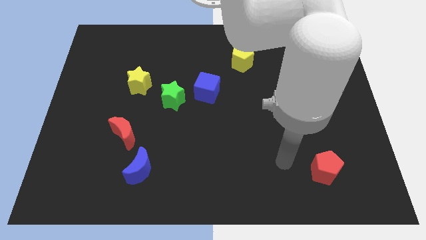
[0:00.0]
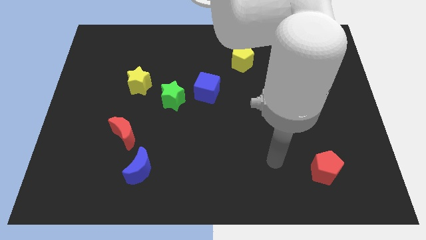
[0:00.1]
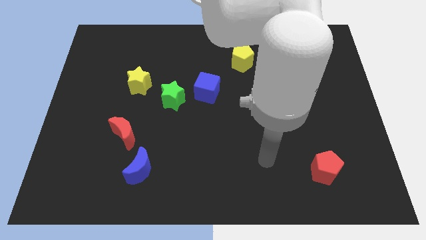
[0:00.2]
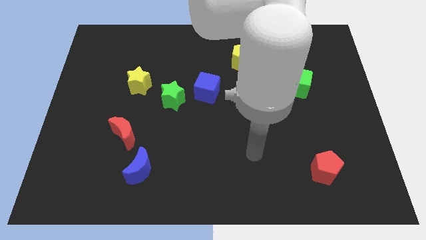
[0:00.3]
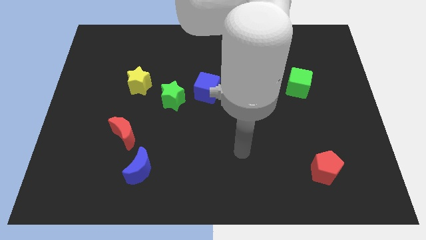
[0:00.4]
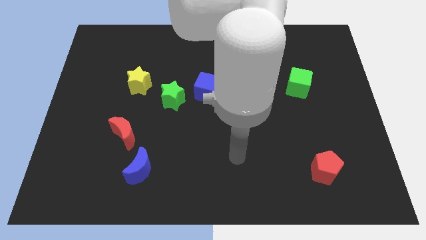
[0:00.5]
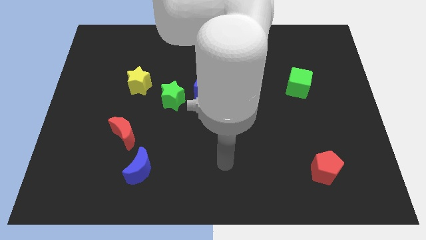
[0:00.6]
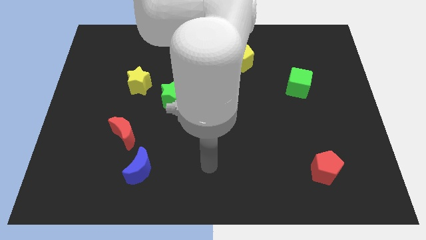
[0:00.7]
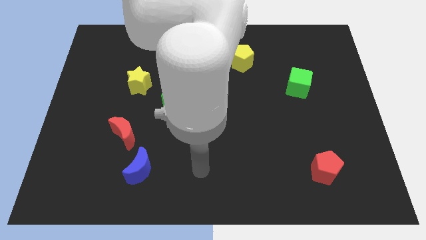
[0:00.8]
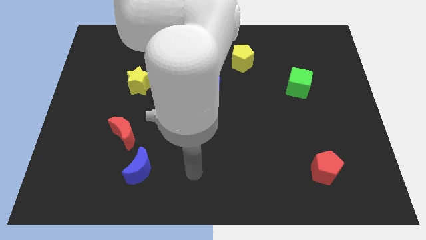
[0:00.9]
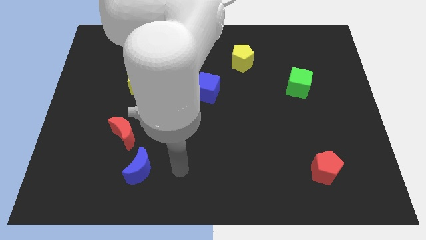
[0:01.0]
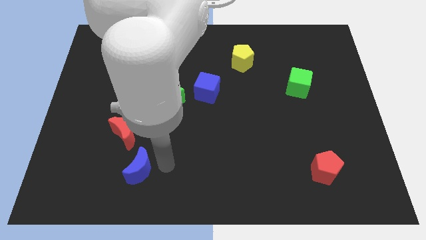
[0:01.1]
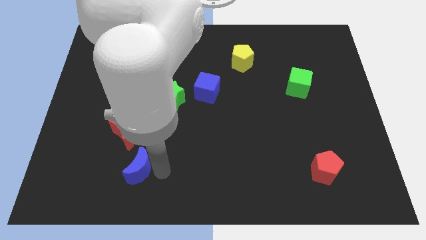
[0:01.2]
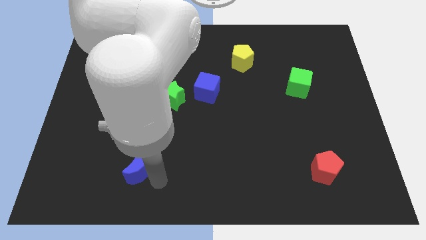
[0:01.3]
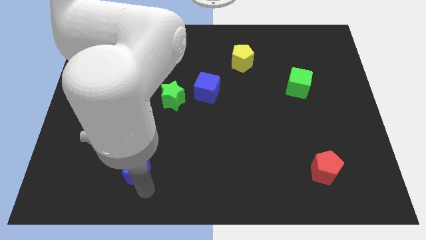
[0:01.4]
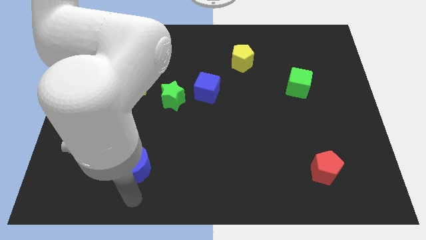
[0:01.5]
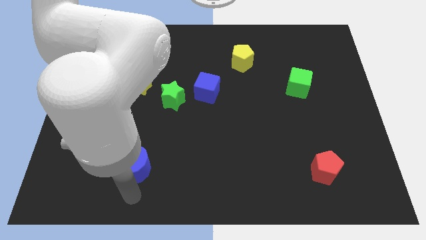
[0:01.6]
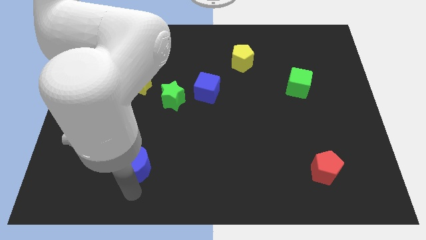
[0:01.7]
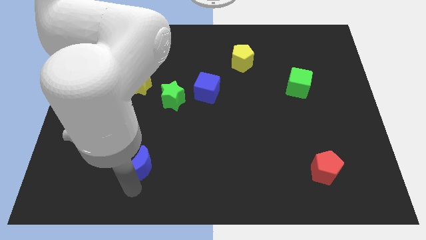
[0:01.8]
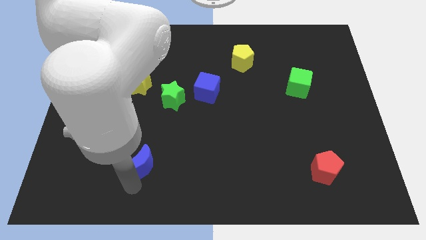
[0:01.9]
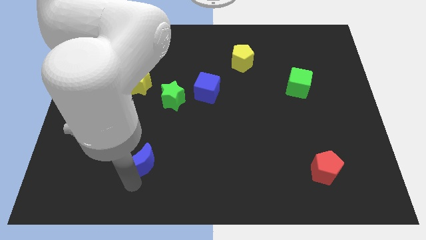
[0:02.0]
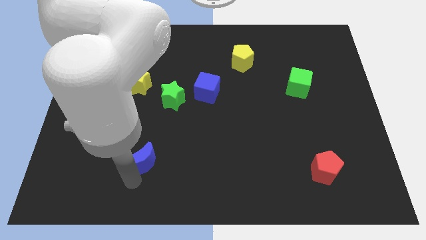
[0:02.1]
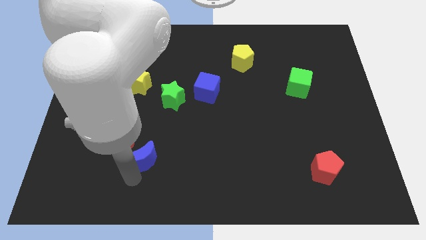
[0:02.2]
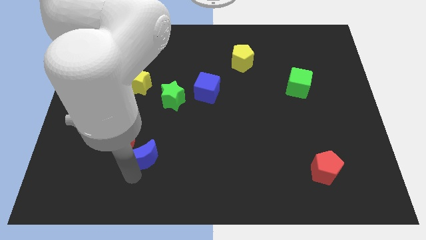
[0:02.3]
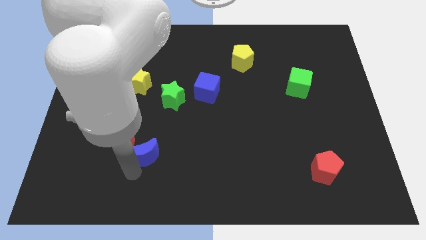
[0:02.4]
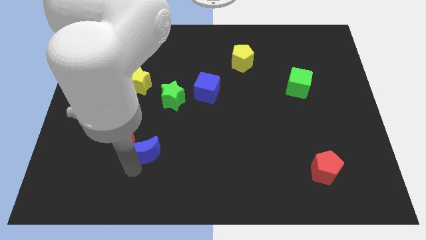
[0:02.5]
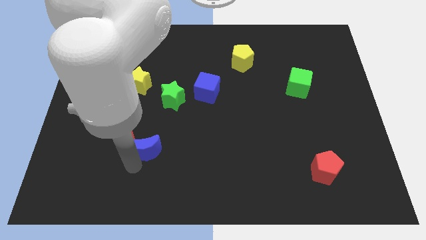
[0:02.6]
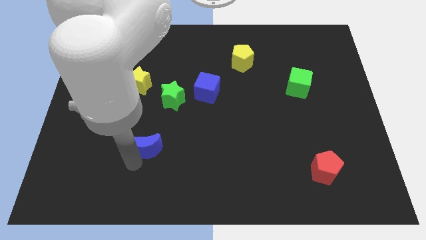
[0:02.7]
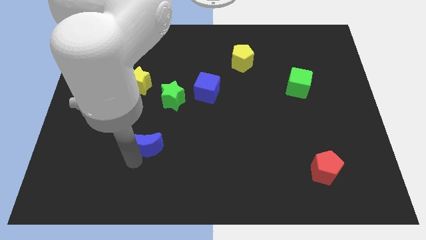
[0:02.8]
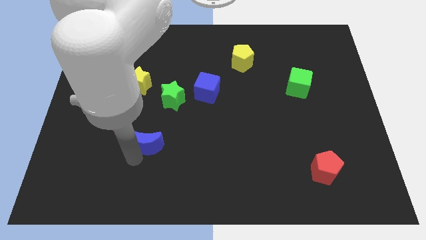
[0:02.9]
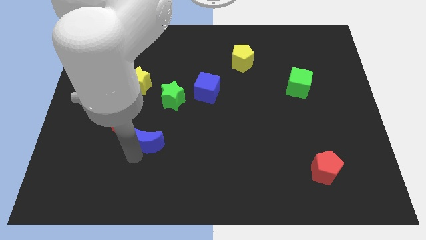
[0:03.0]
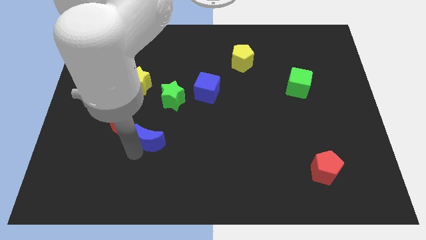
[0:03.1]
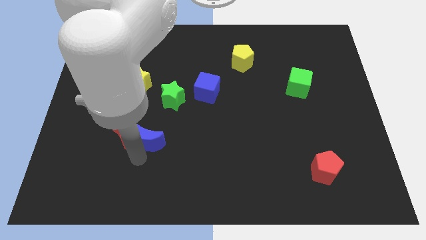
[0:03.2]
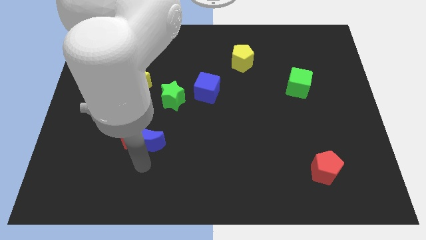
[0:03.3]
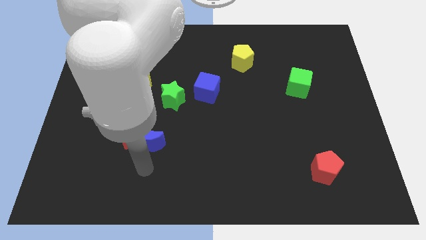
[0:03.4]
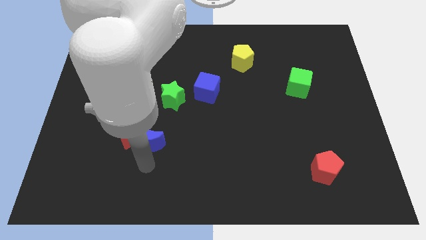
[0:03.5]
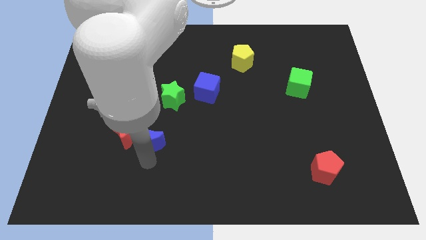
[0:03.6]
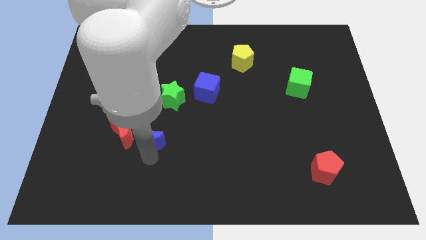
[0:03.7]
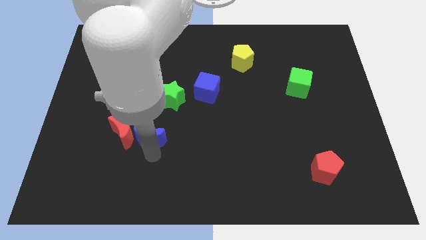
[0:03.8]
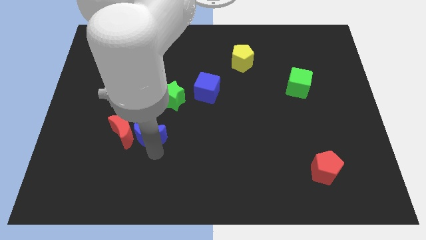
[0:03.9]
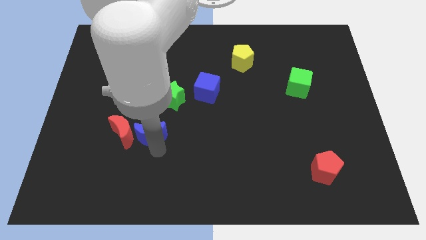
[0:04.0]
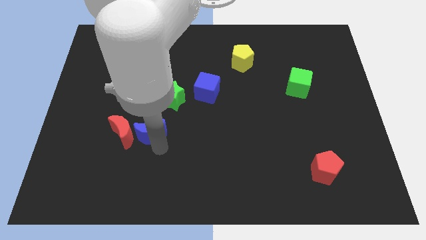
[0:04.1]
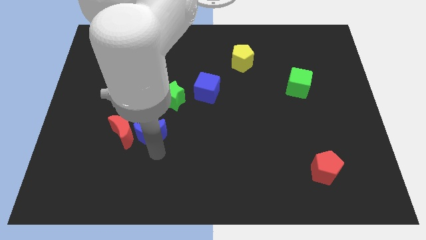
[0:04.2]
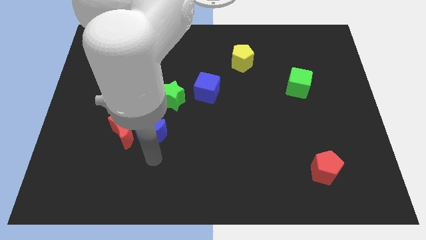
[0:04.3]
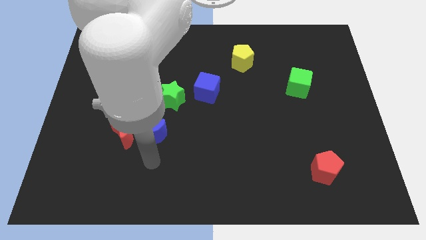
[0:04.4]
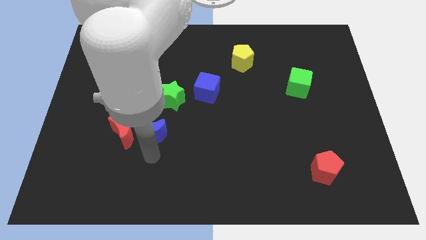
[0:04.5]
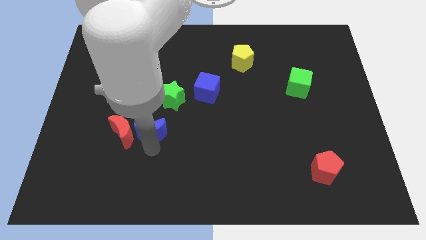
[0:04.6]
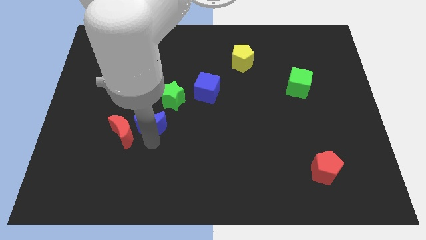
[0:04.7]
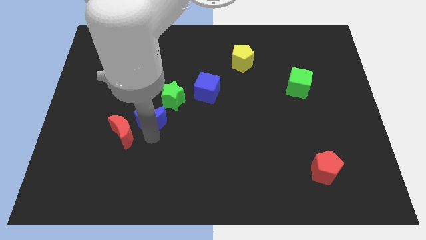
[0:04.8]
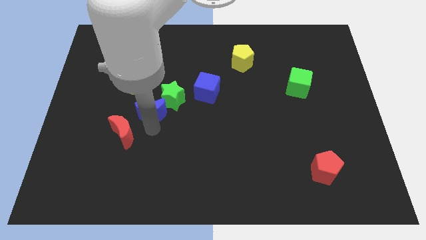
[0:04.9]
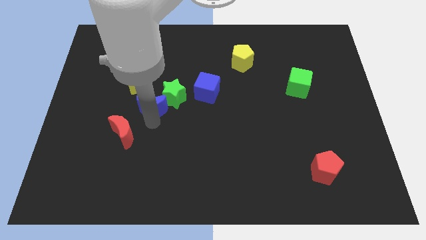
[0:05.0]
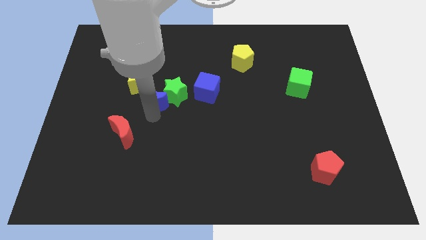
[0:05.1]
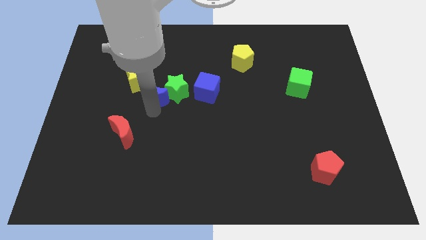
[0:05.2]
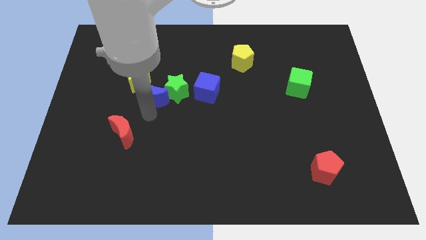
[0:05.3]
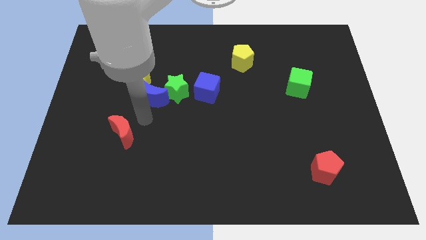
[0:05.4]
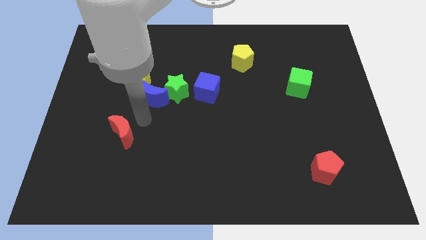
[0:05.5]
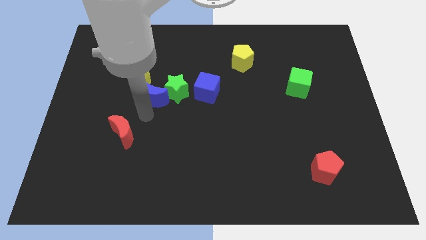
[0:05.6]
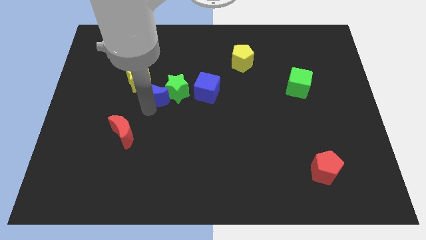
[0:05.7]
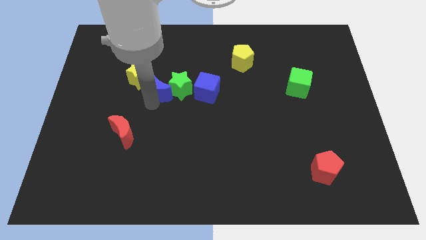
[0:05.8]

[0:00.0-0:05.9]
move the blue moon up

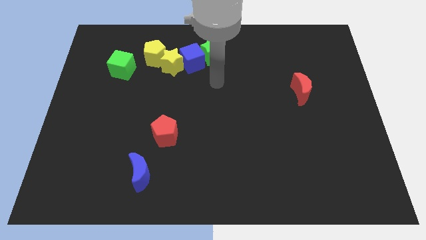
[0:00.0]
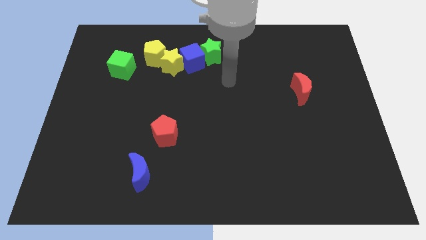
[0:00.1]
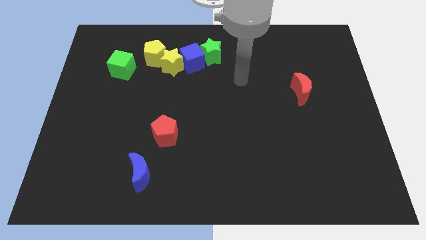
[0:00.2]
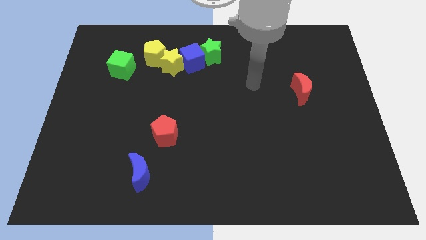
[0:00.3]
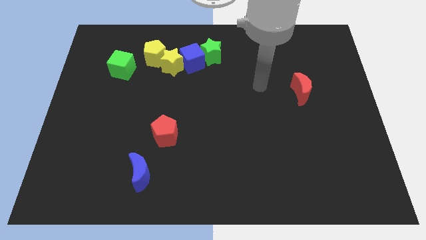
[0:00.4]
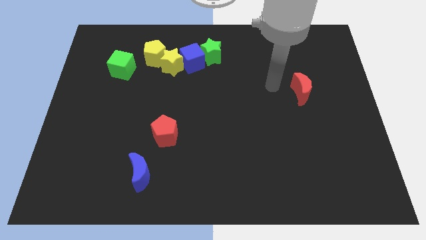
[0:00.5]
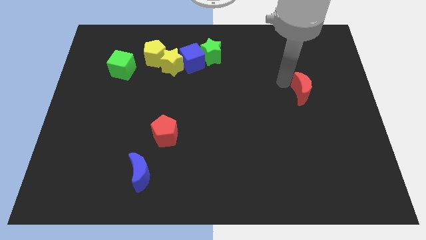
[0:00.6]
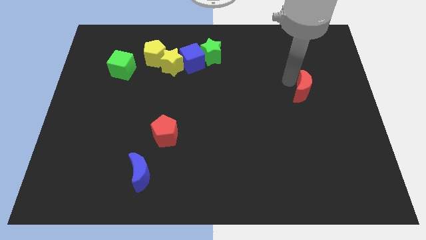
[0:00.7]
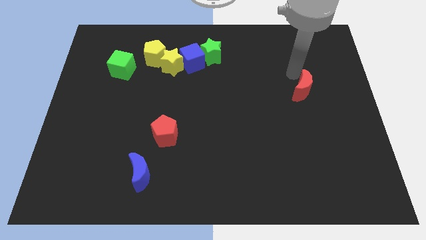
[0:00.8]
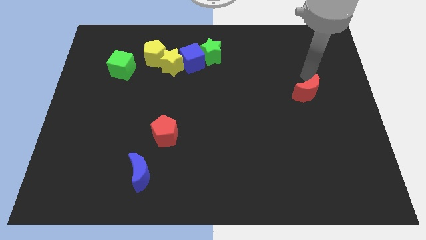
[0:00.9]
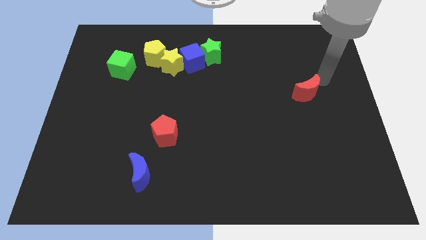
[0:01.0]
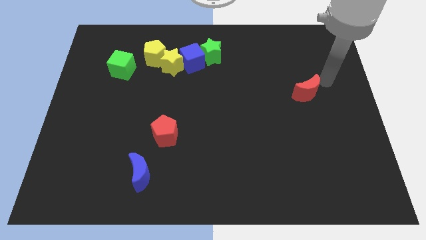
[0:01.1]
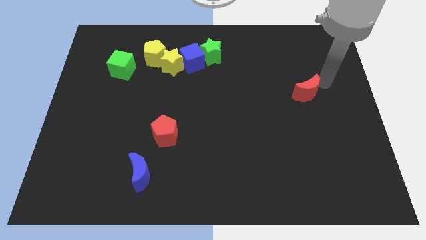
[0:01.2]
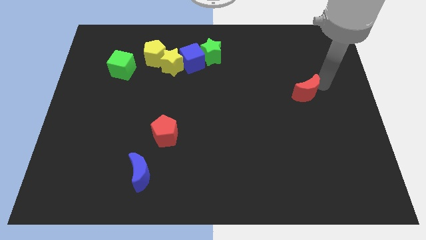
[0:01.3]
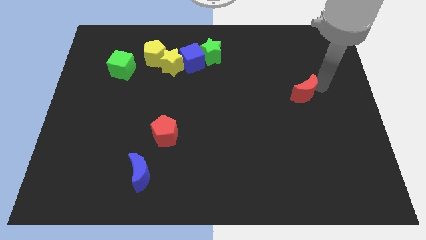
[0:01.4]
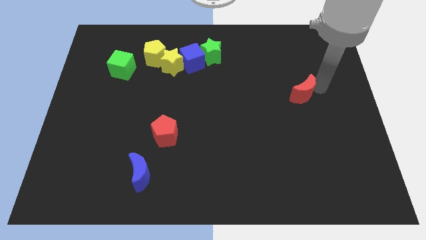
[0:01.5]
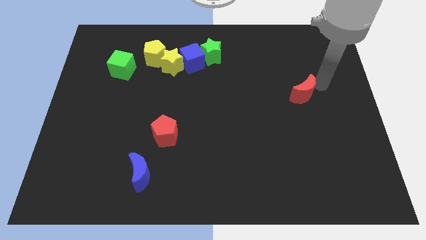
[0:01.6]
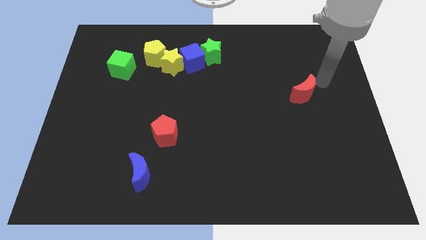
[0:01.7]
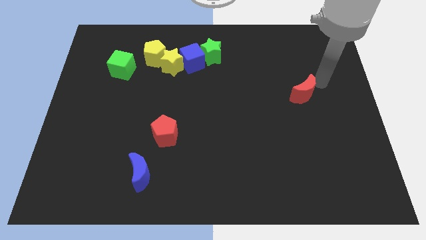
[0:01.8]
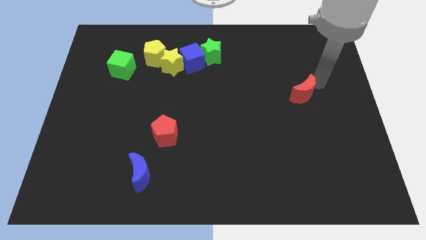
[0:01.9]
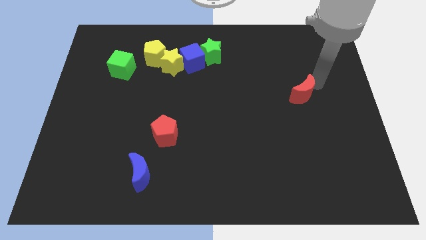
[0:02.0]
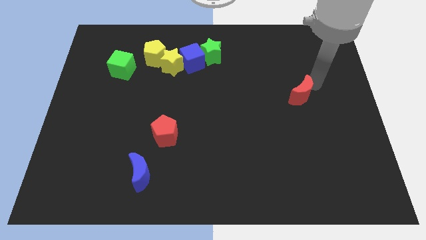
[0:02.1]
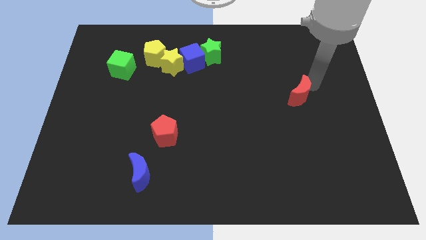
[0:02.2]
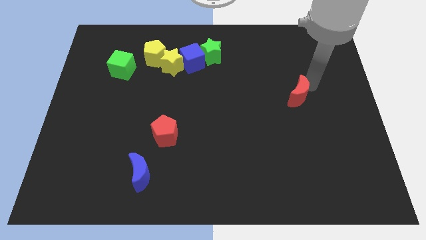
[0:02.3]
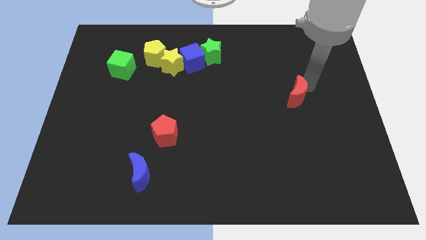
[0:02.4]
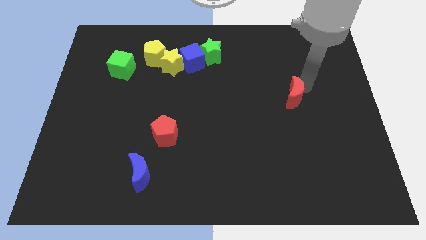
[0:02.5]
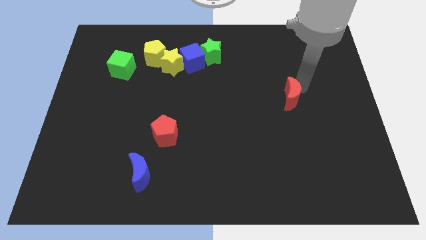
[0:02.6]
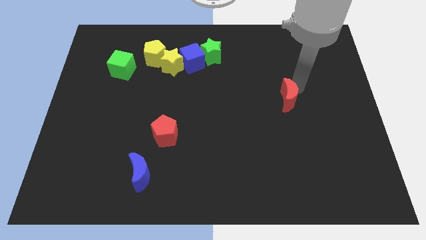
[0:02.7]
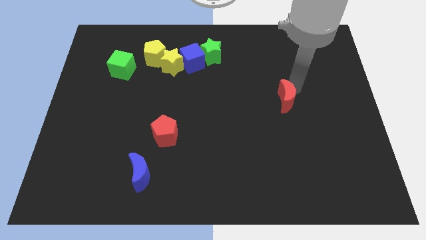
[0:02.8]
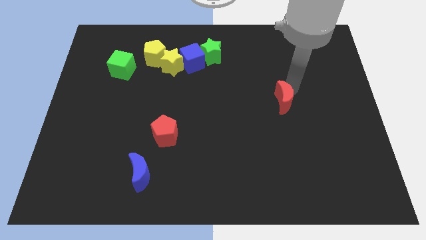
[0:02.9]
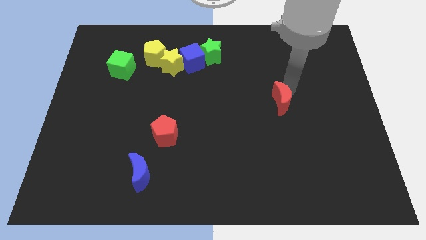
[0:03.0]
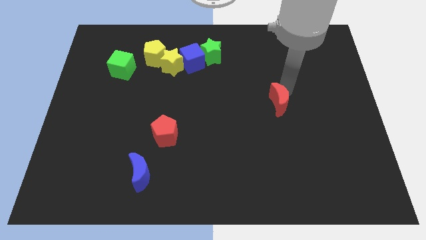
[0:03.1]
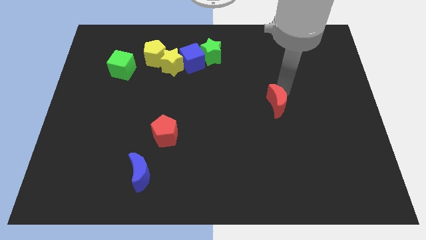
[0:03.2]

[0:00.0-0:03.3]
slightly move the red moon downwards and to the left diagonally
